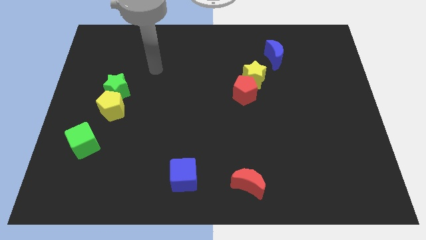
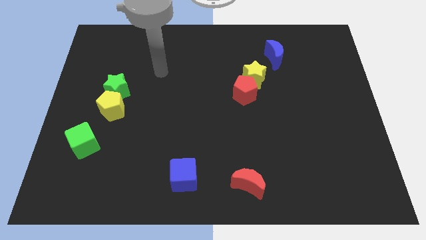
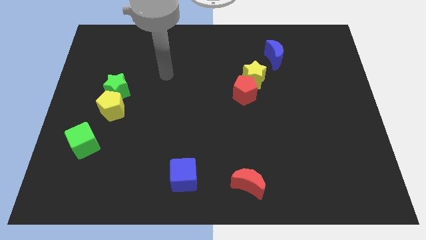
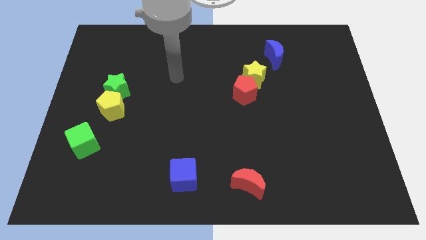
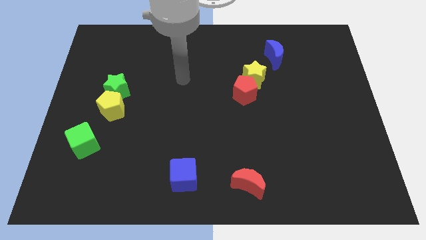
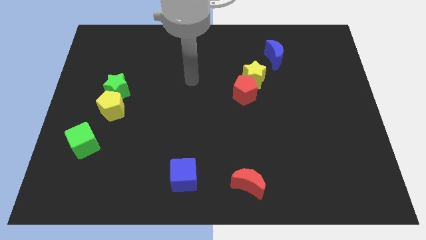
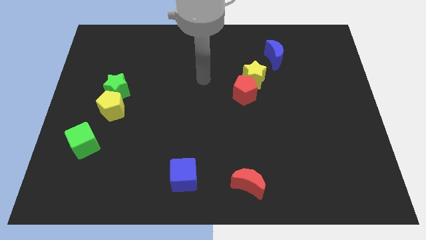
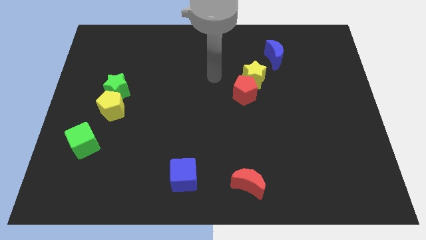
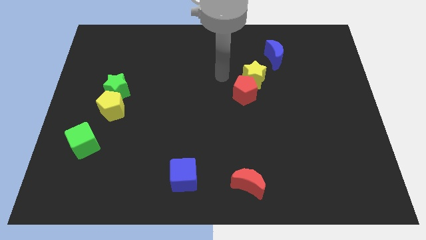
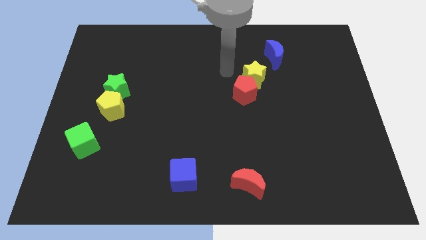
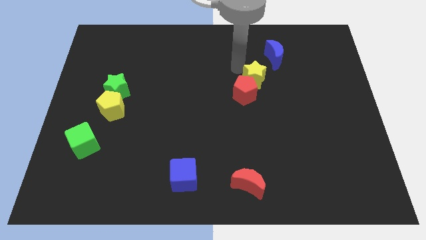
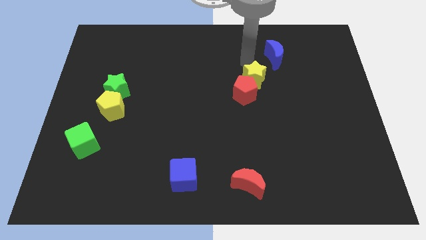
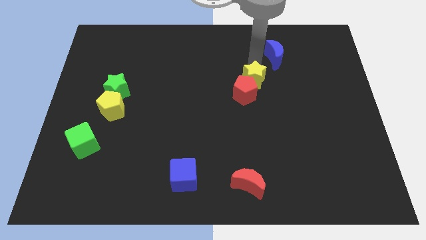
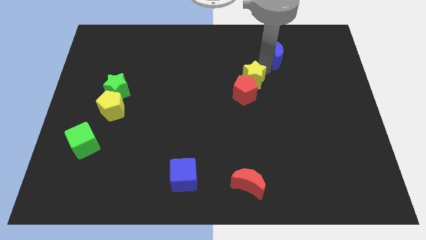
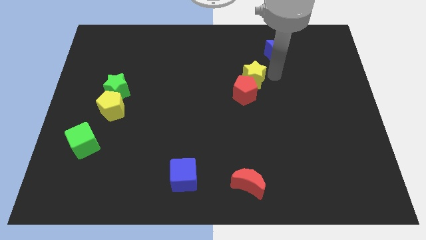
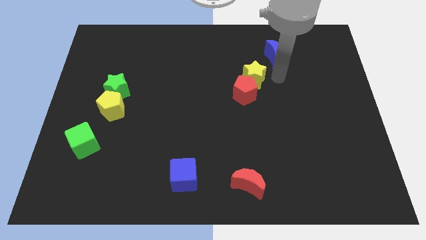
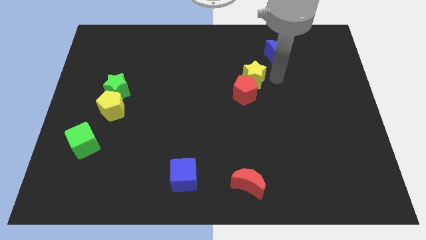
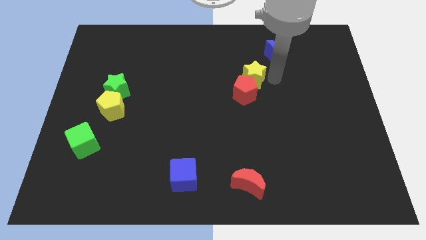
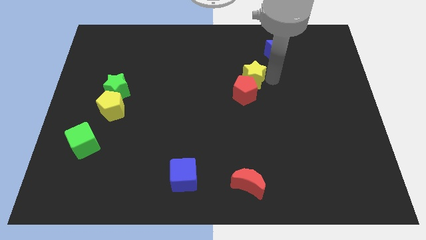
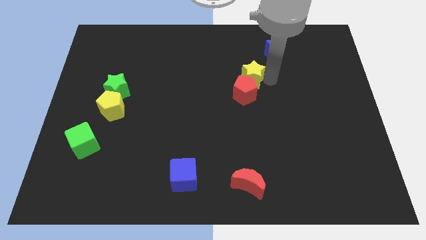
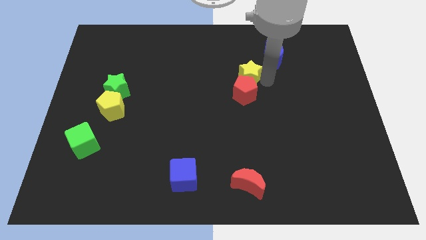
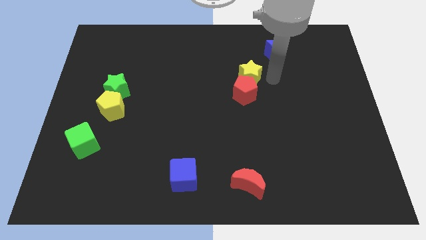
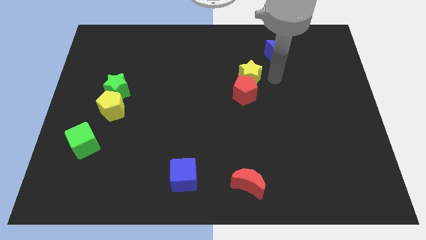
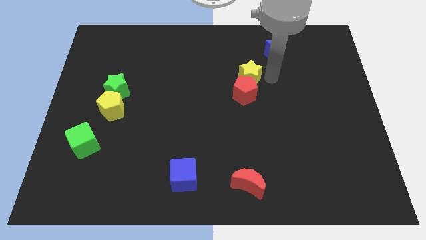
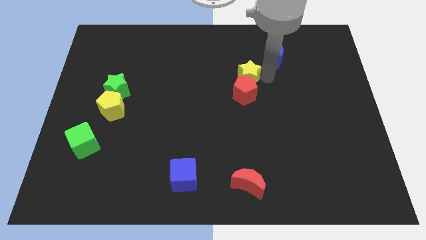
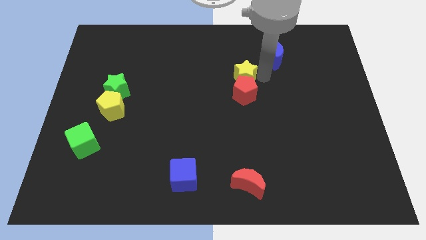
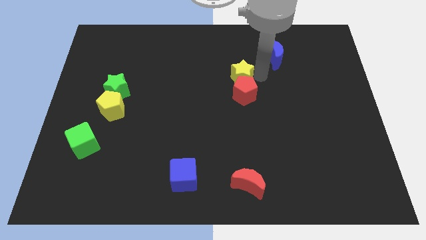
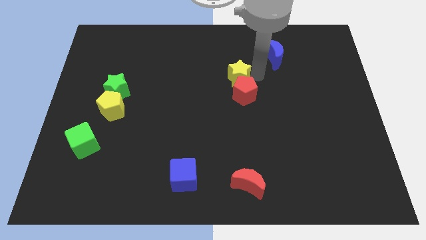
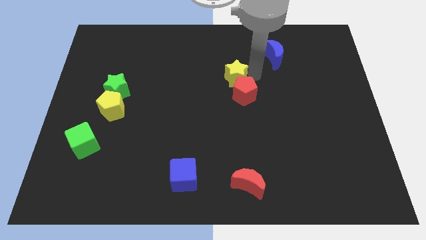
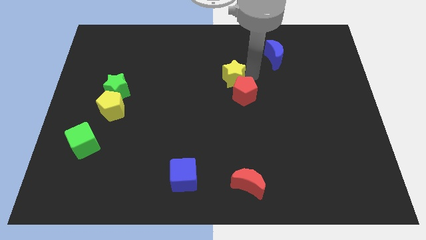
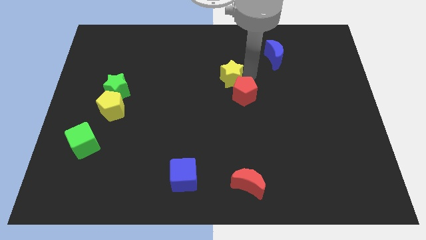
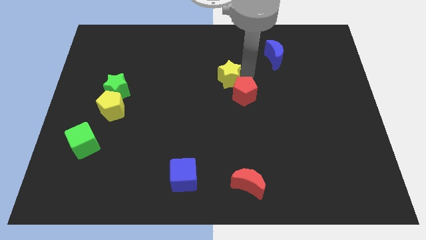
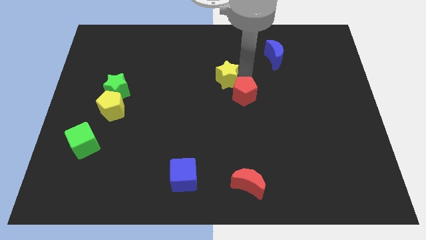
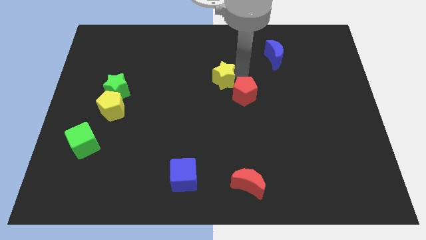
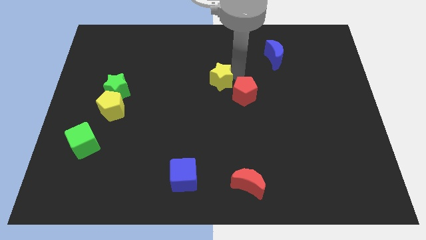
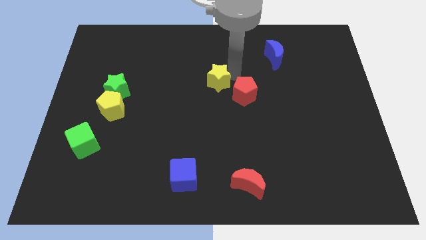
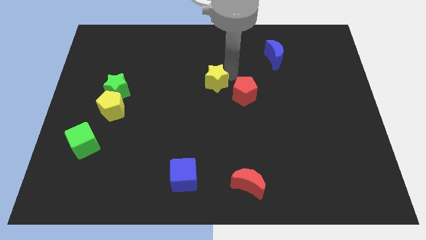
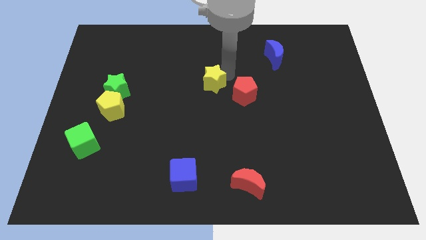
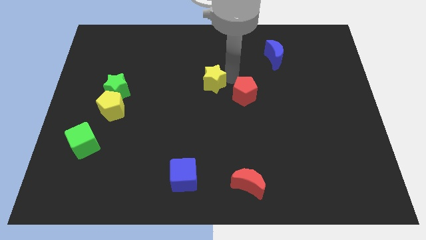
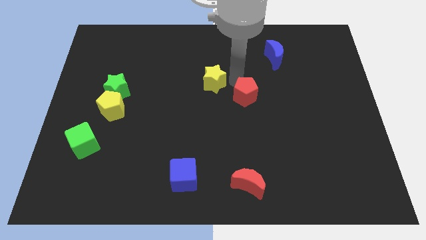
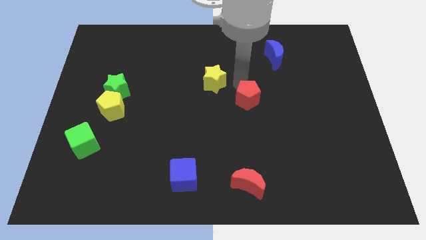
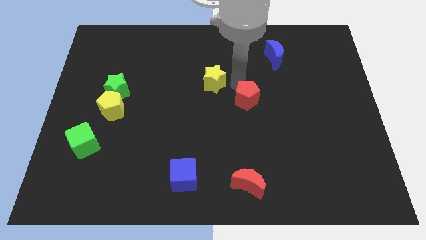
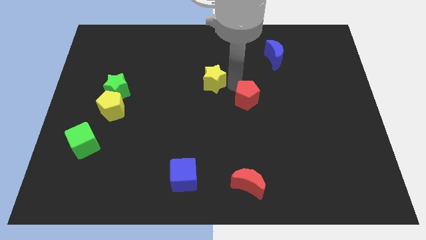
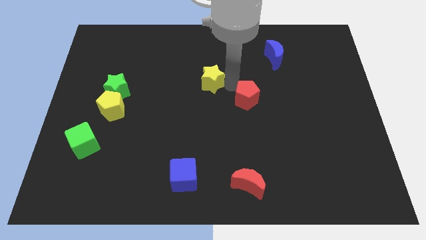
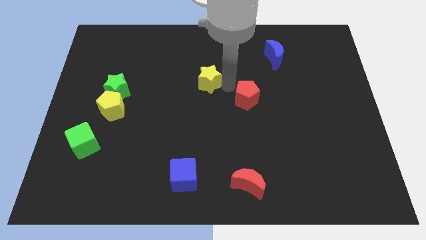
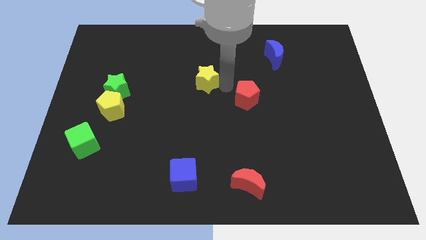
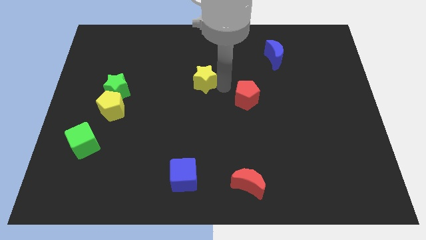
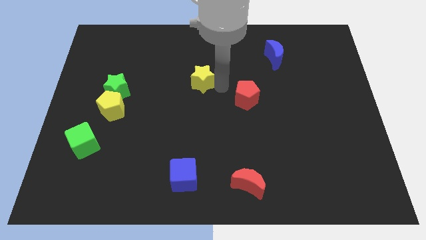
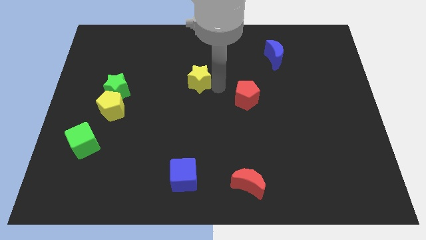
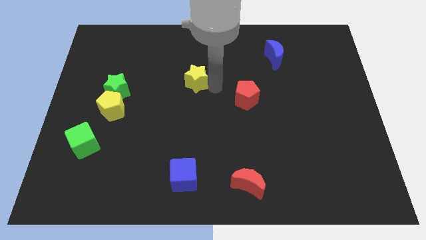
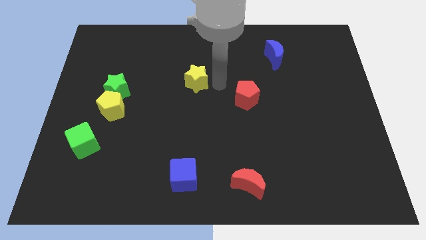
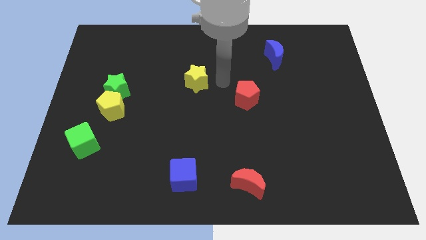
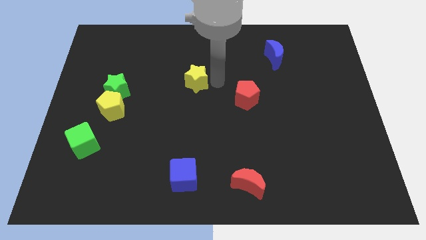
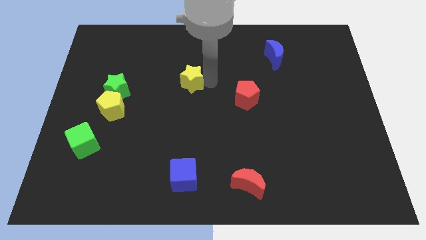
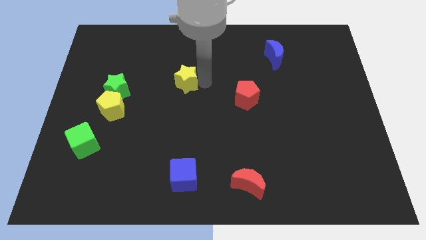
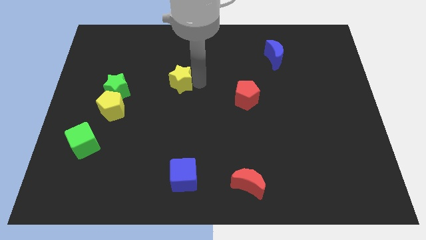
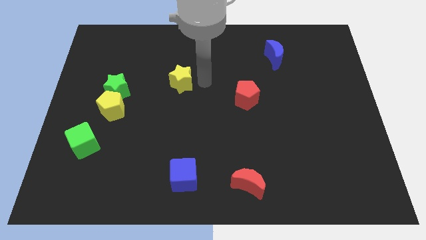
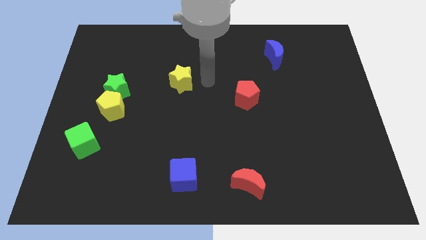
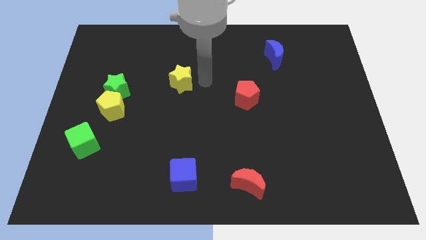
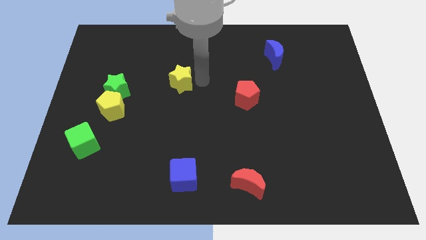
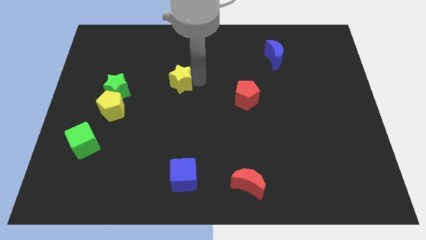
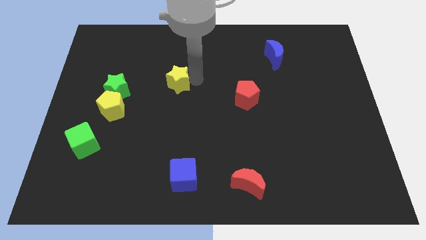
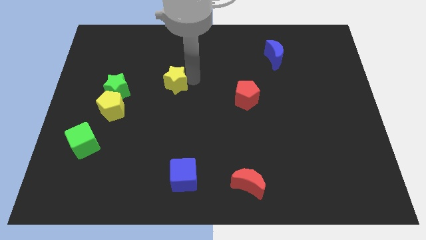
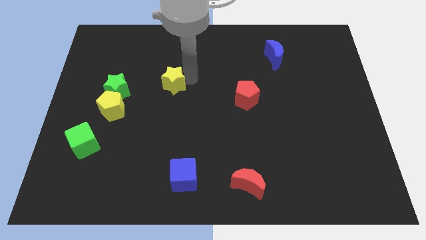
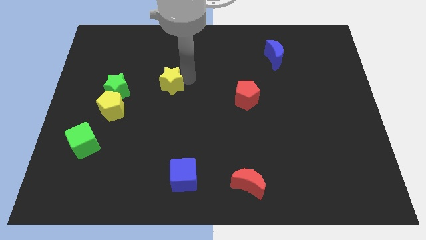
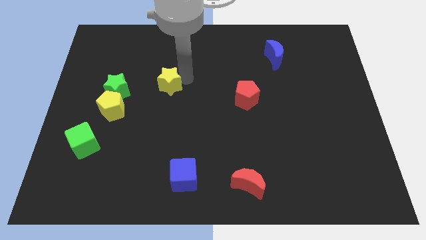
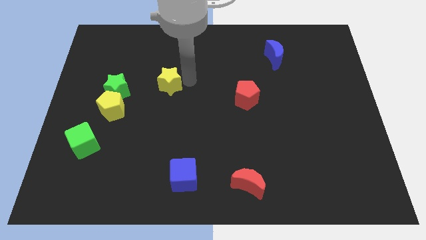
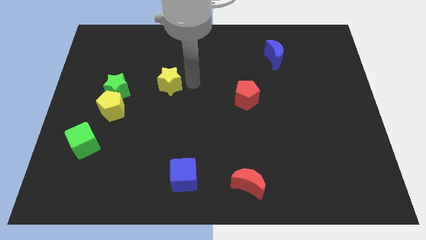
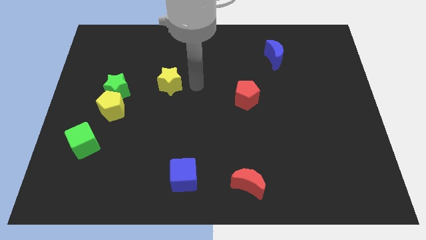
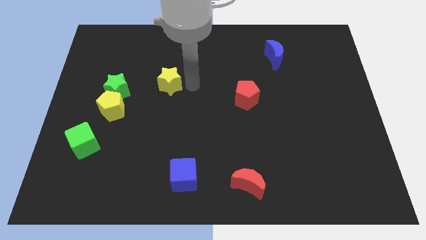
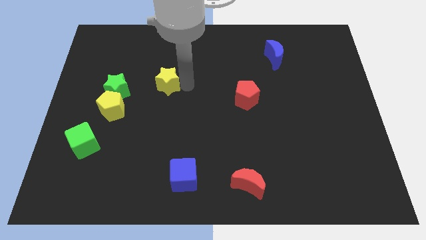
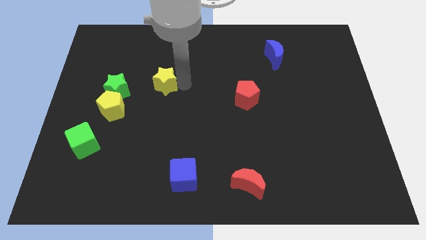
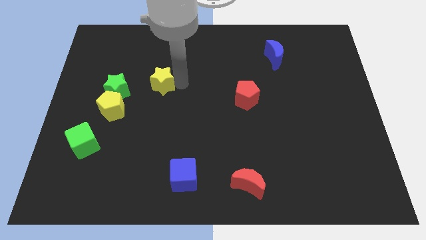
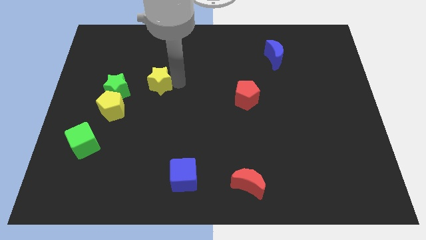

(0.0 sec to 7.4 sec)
push the yellow star to the top right side of the yellow pentagon

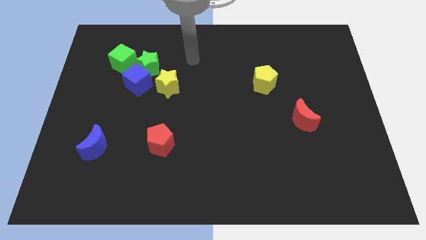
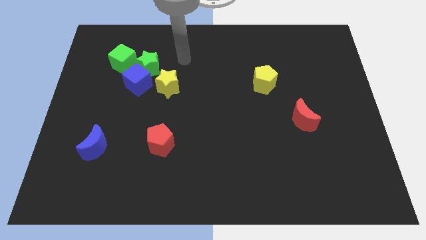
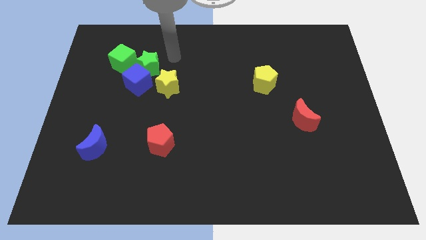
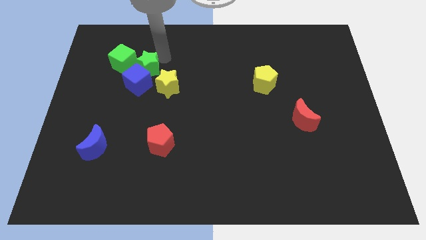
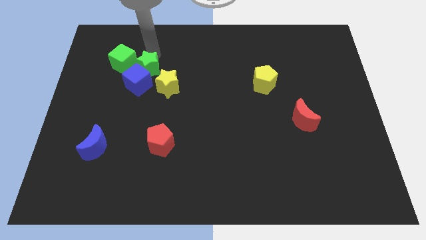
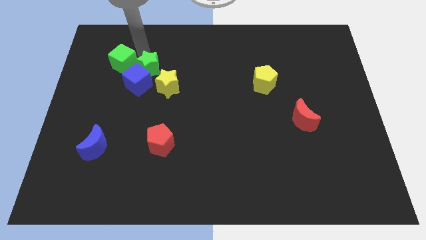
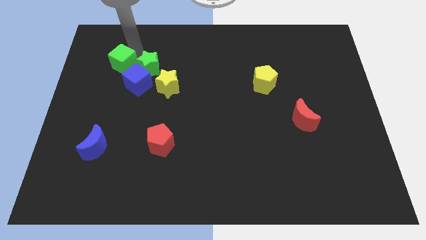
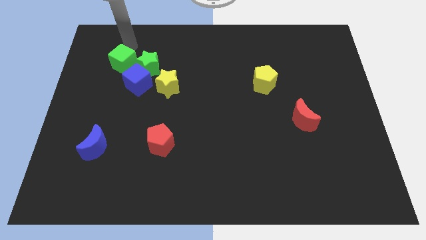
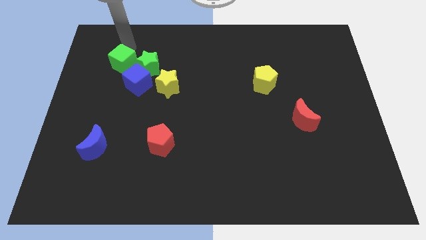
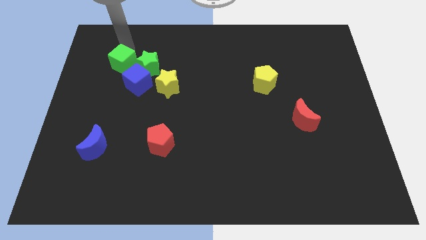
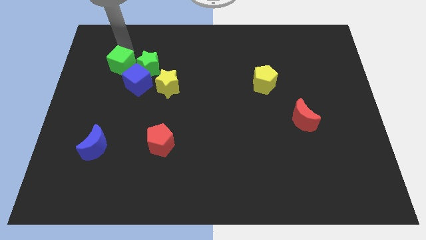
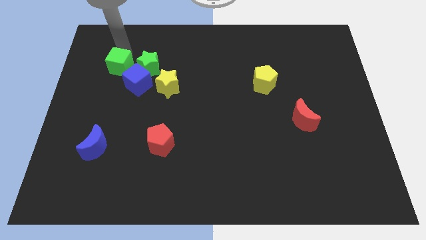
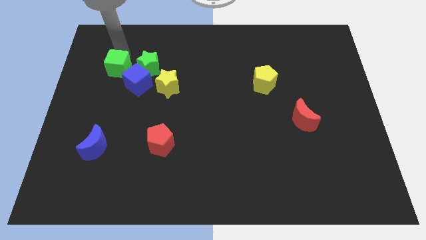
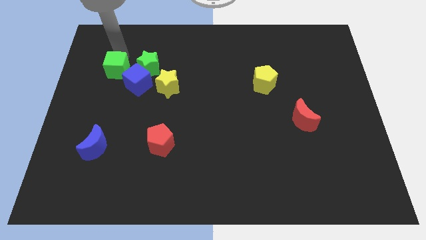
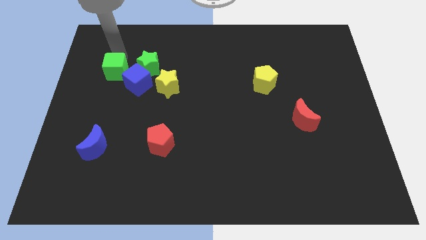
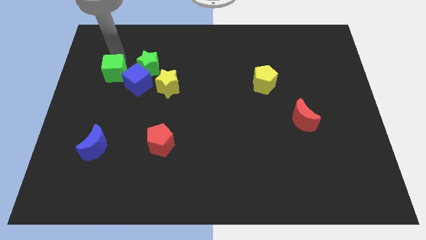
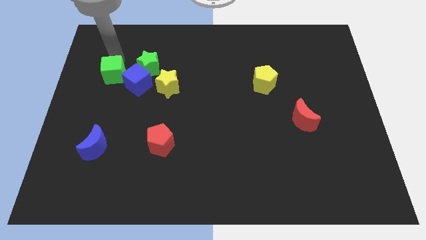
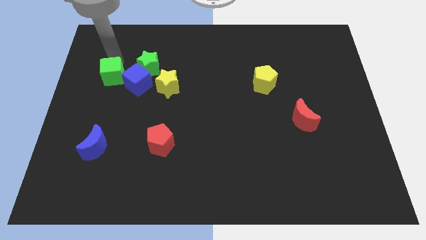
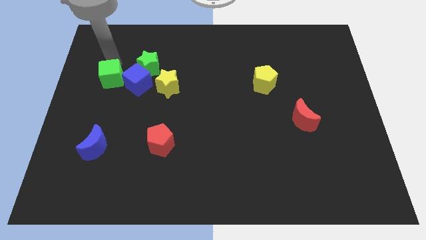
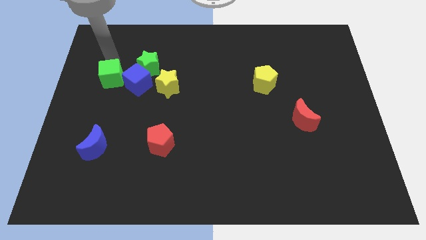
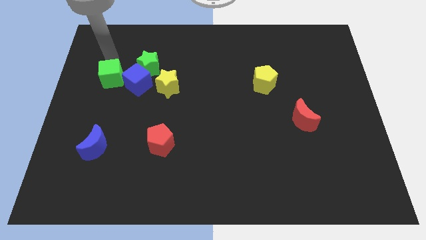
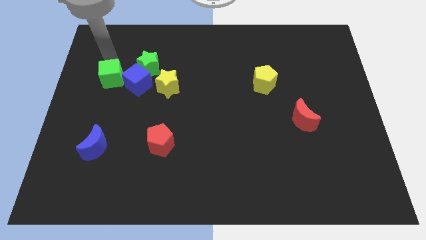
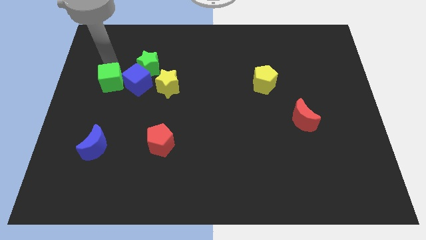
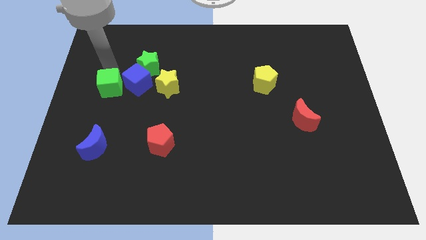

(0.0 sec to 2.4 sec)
put the green cube to the bottom left of the blue cube
